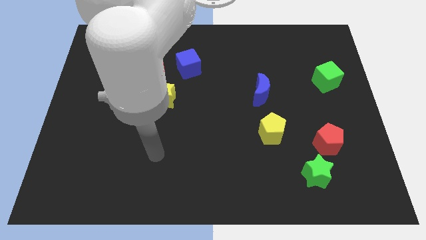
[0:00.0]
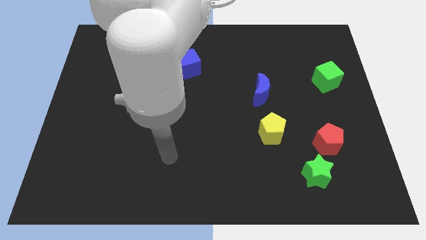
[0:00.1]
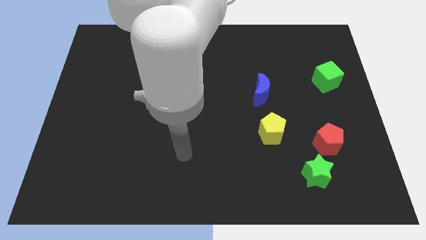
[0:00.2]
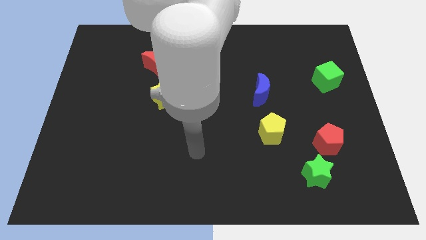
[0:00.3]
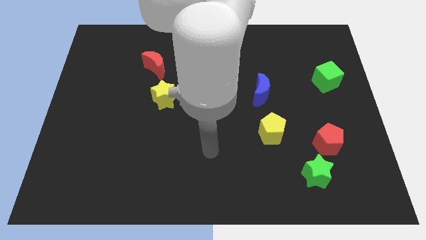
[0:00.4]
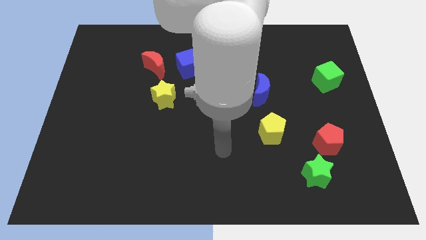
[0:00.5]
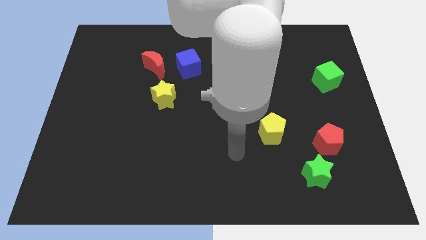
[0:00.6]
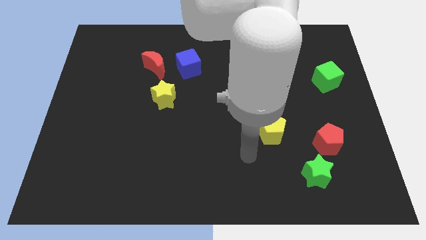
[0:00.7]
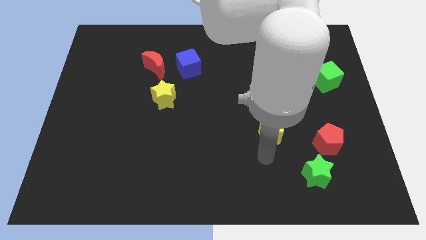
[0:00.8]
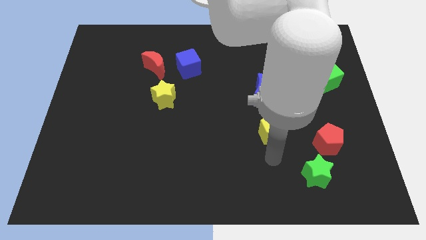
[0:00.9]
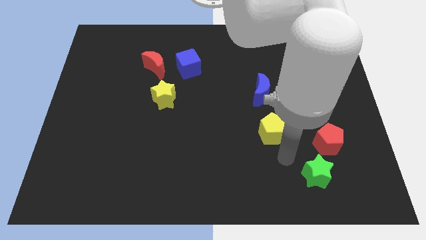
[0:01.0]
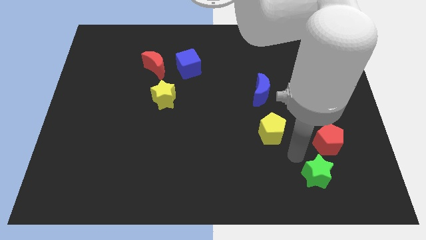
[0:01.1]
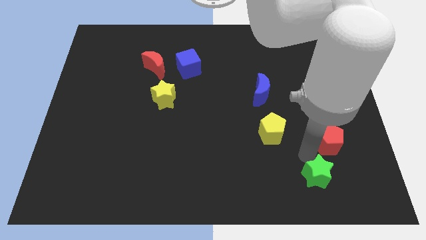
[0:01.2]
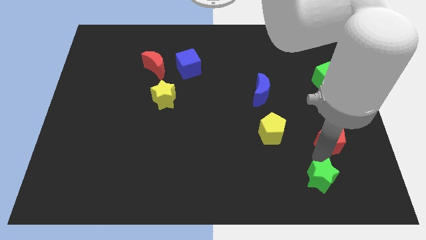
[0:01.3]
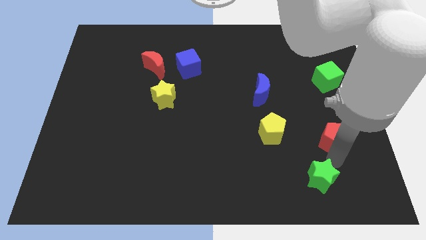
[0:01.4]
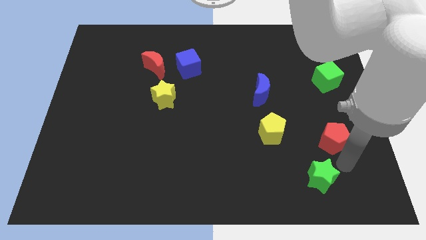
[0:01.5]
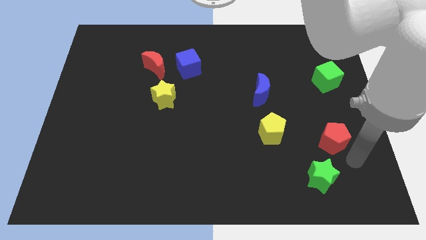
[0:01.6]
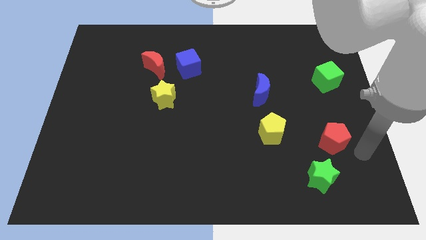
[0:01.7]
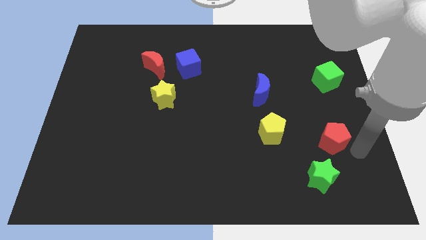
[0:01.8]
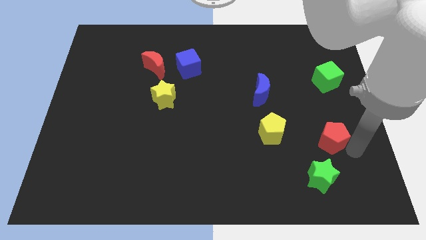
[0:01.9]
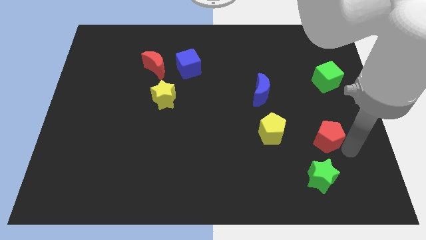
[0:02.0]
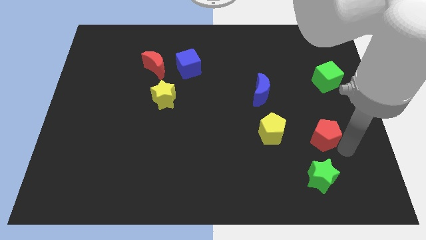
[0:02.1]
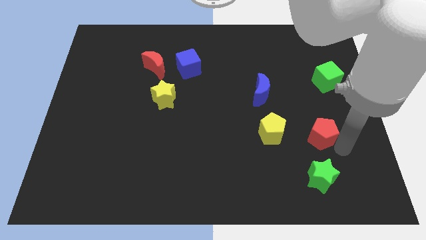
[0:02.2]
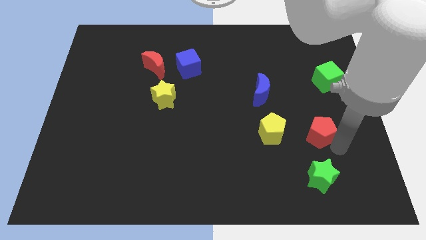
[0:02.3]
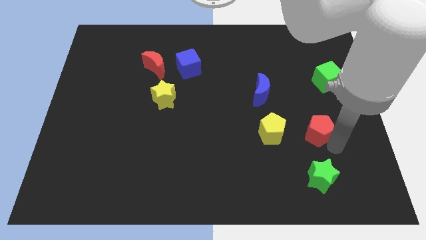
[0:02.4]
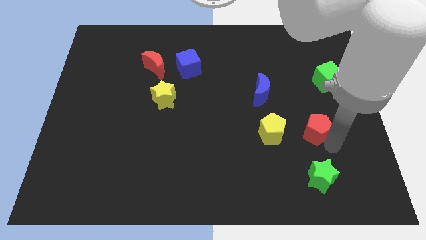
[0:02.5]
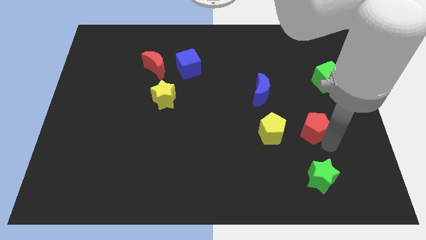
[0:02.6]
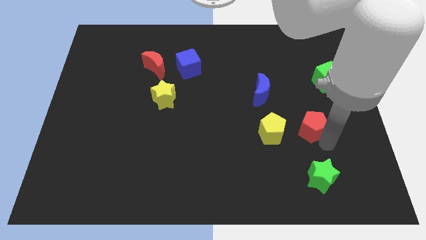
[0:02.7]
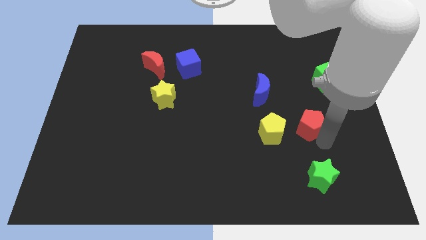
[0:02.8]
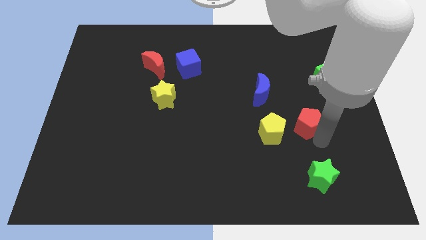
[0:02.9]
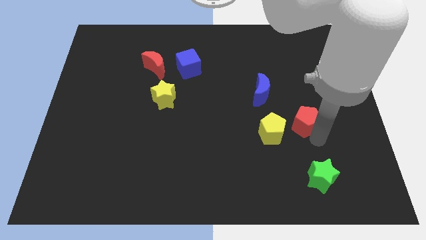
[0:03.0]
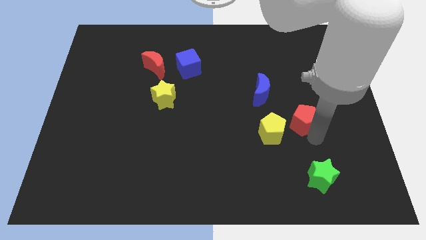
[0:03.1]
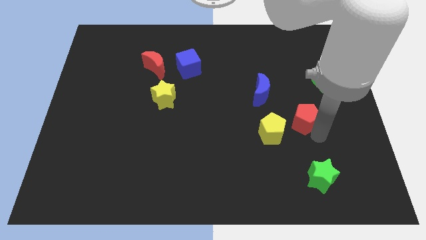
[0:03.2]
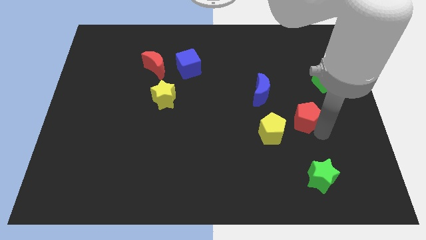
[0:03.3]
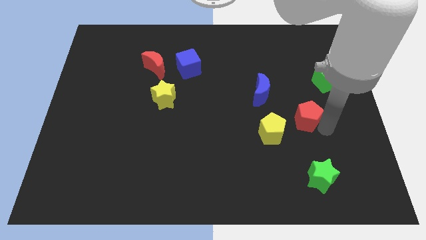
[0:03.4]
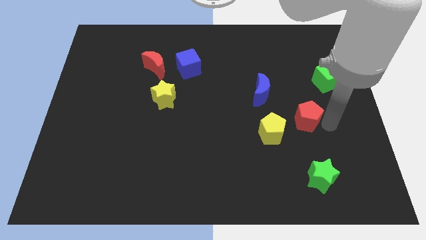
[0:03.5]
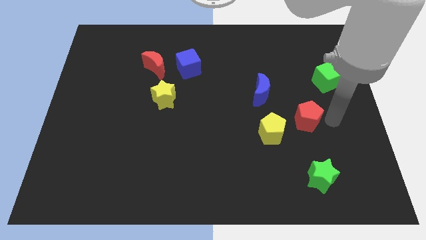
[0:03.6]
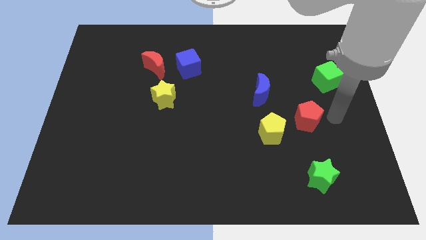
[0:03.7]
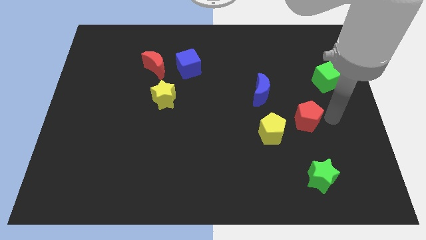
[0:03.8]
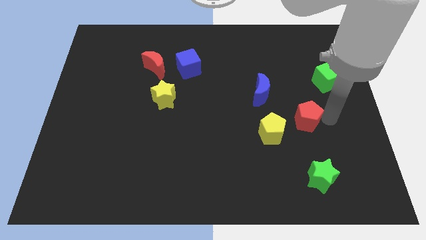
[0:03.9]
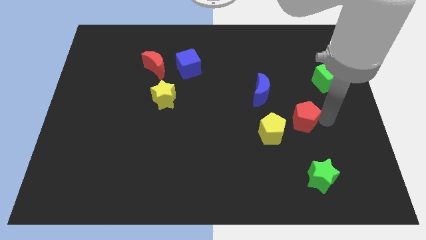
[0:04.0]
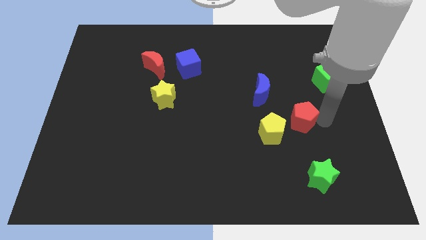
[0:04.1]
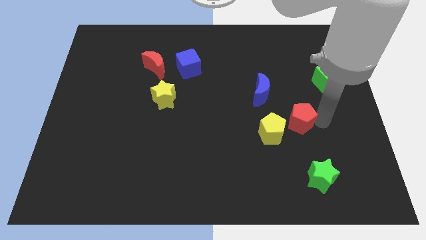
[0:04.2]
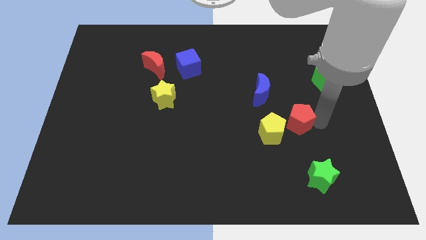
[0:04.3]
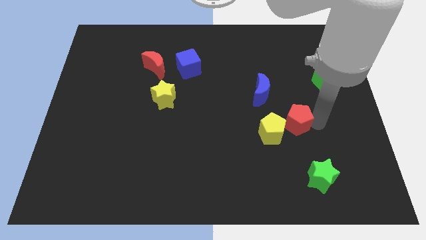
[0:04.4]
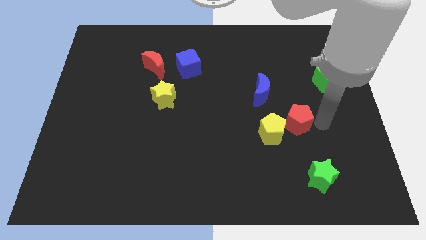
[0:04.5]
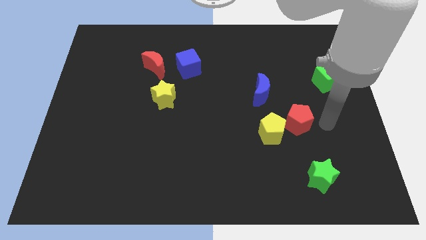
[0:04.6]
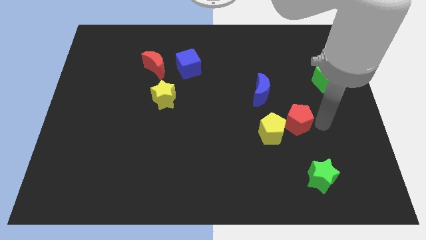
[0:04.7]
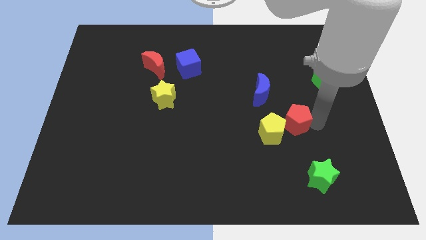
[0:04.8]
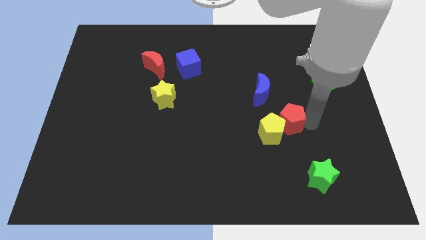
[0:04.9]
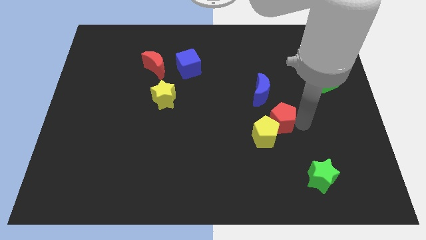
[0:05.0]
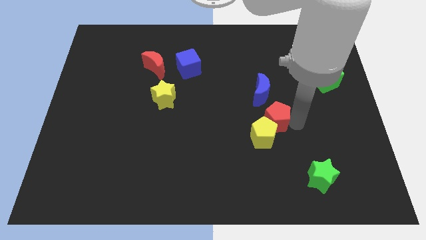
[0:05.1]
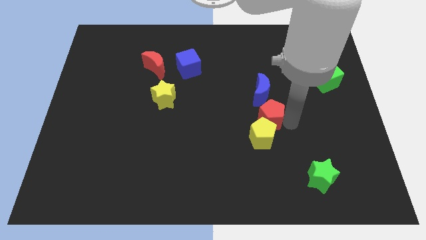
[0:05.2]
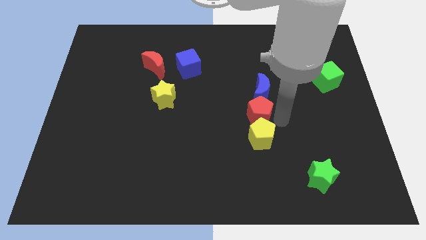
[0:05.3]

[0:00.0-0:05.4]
put the red pentagon to the center

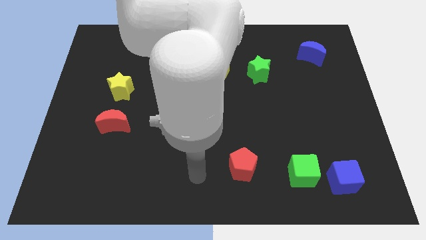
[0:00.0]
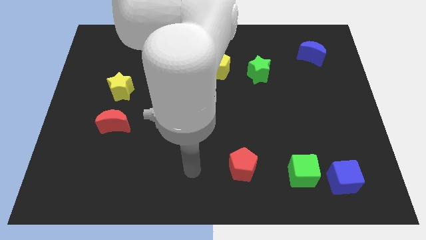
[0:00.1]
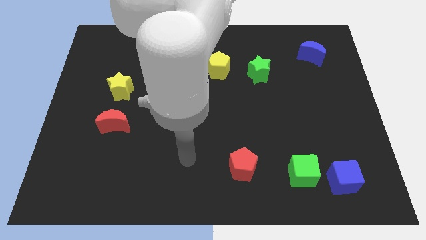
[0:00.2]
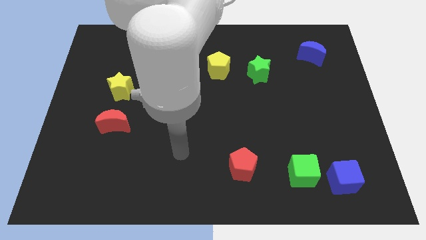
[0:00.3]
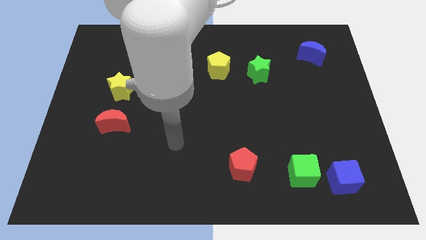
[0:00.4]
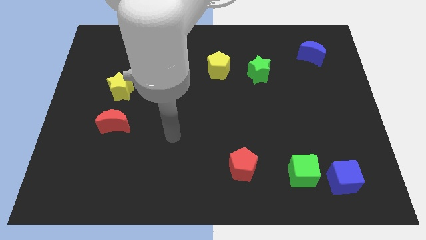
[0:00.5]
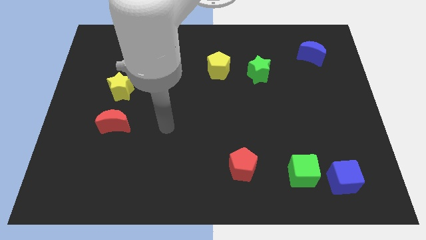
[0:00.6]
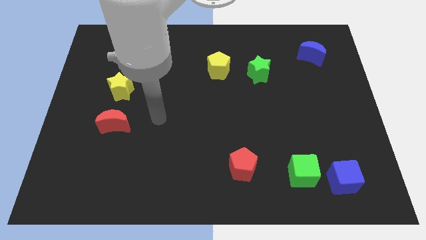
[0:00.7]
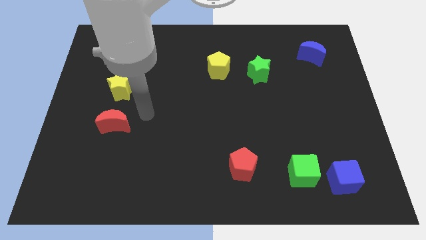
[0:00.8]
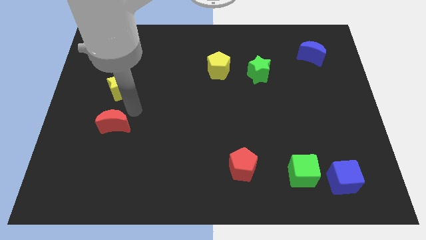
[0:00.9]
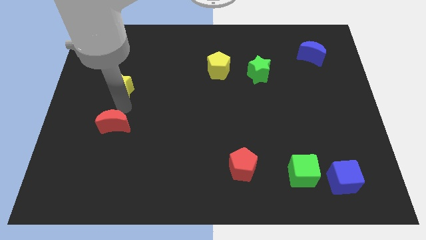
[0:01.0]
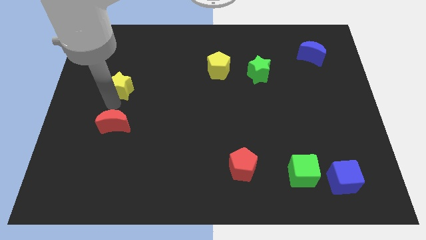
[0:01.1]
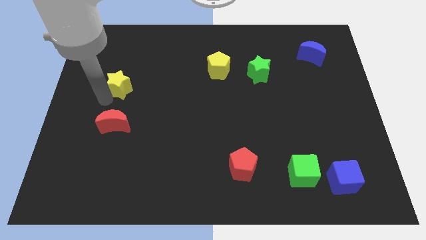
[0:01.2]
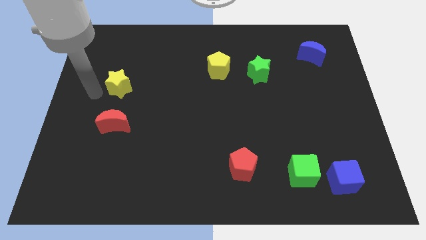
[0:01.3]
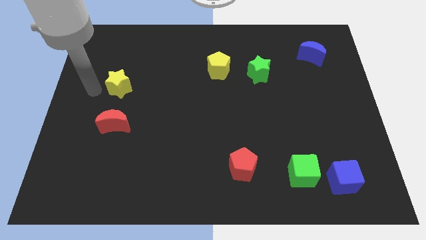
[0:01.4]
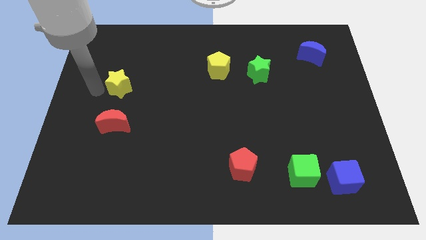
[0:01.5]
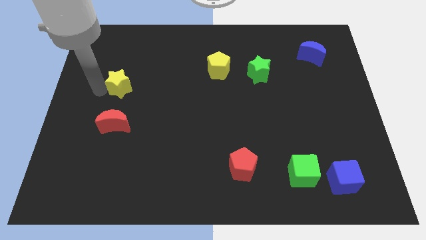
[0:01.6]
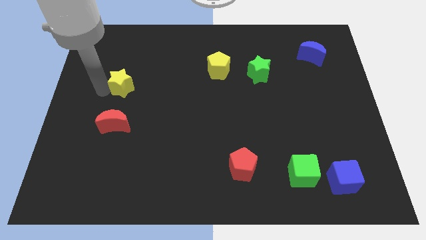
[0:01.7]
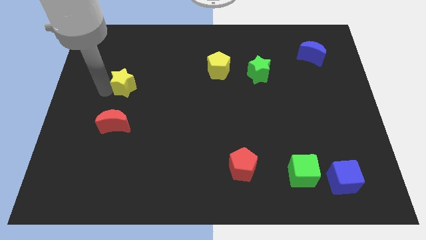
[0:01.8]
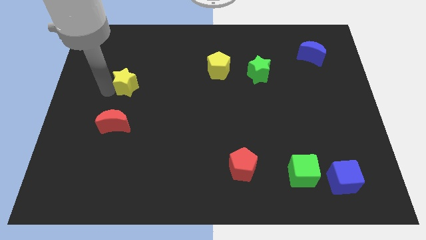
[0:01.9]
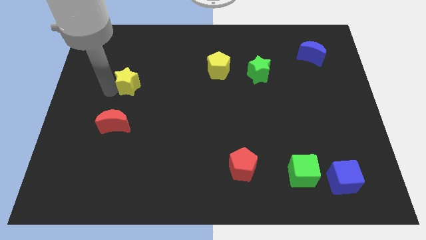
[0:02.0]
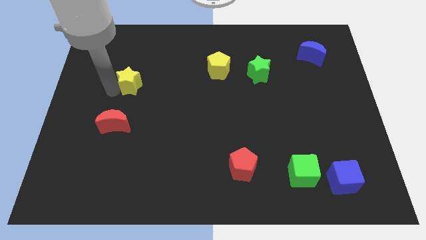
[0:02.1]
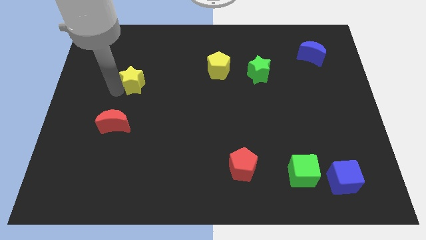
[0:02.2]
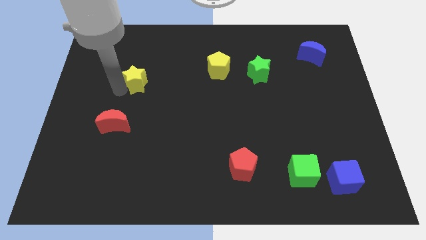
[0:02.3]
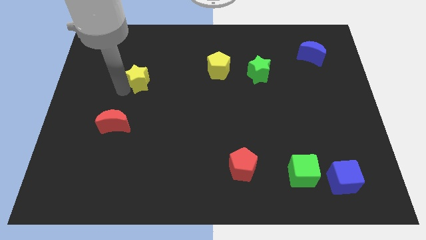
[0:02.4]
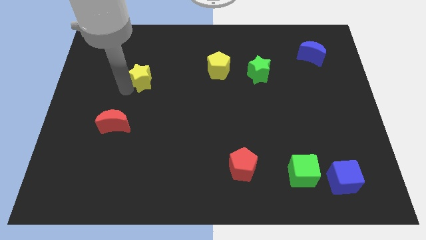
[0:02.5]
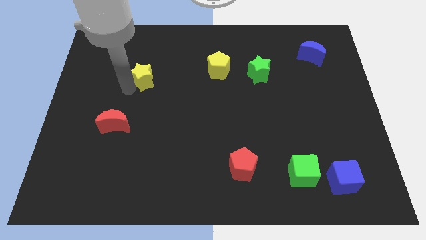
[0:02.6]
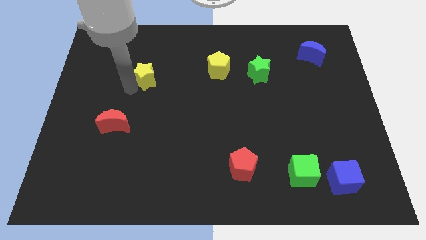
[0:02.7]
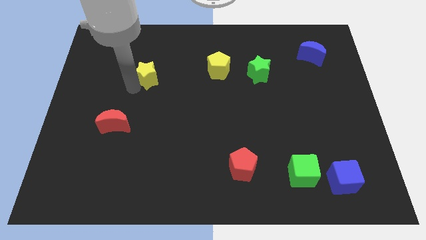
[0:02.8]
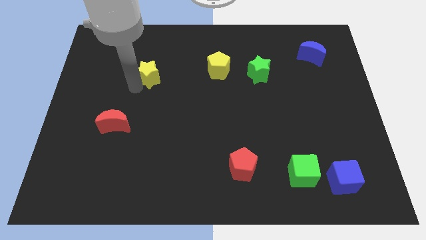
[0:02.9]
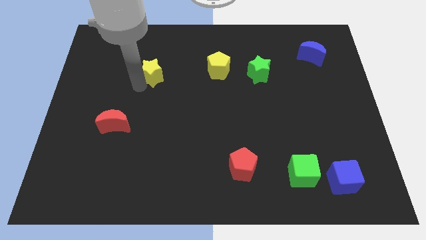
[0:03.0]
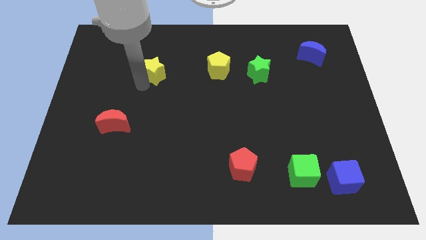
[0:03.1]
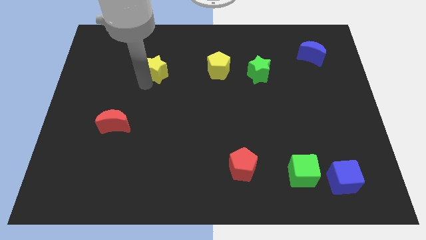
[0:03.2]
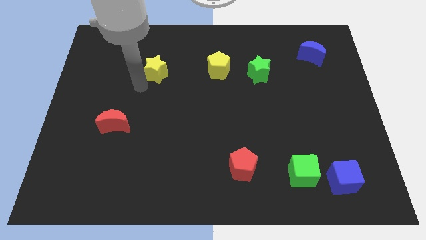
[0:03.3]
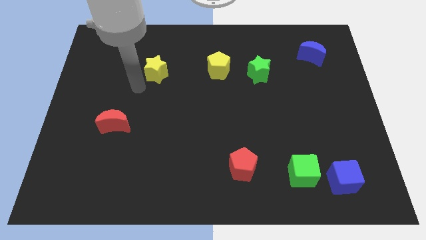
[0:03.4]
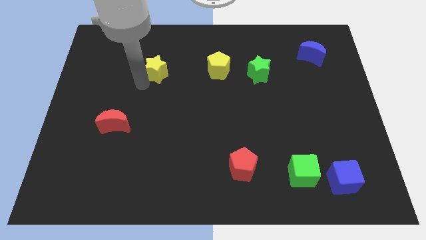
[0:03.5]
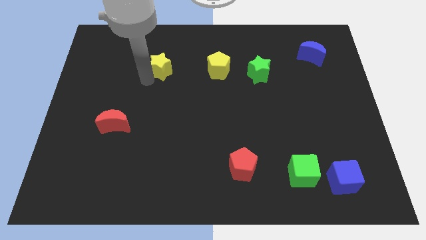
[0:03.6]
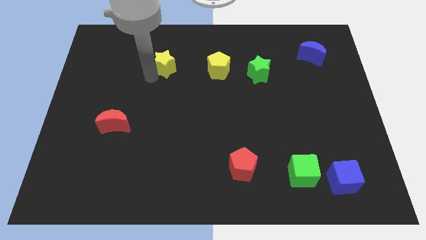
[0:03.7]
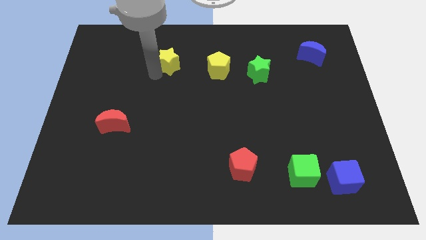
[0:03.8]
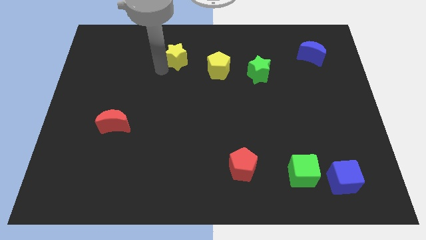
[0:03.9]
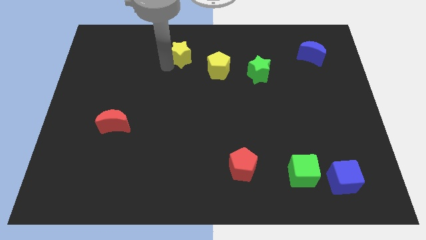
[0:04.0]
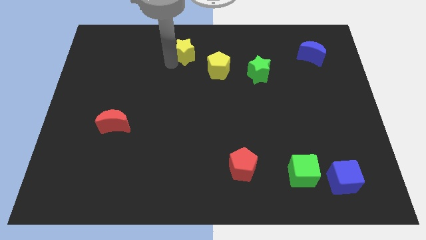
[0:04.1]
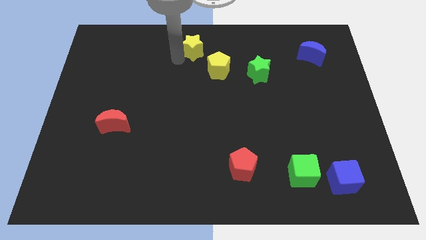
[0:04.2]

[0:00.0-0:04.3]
put the yellow star to the top side
